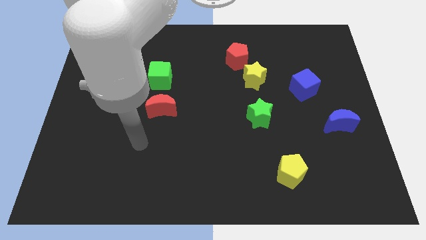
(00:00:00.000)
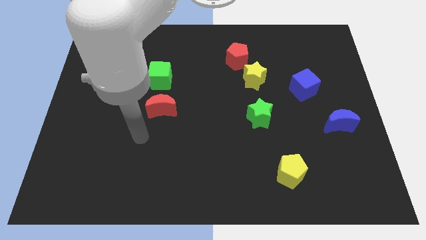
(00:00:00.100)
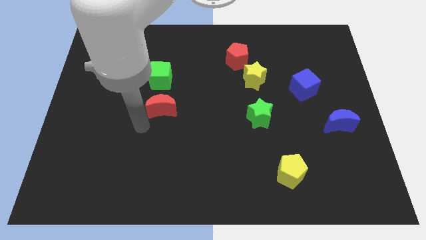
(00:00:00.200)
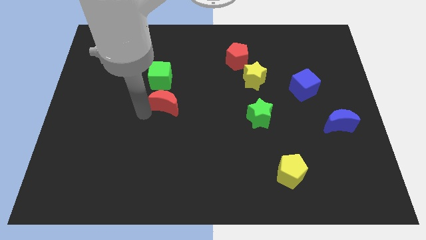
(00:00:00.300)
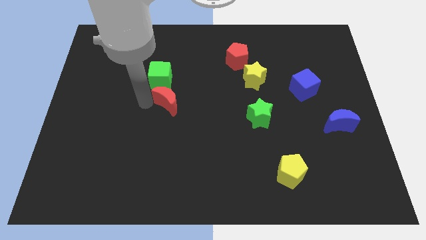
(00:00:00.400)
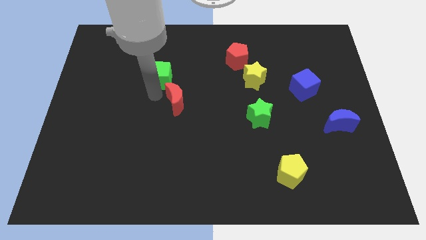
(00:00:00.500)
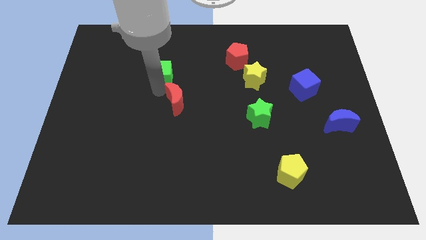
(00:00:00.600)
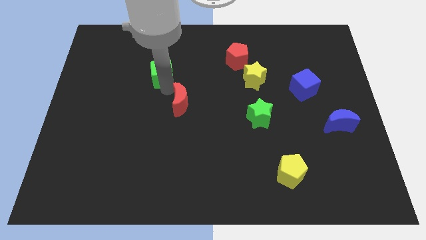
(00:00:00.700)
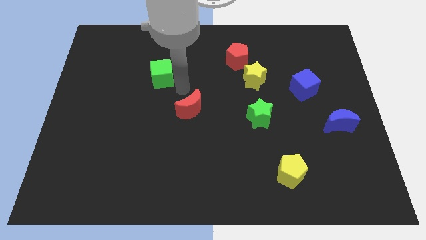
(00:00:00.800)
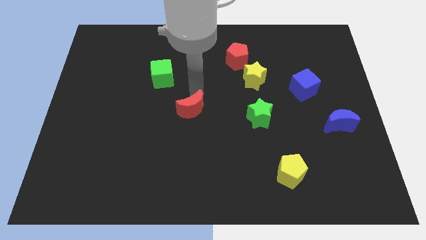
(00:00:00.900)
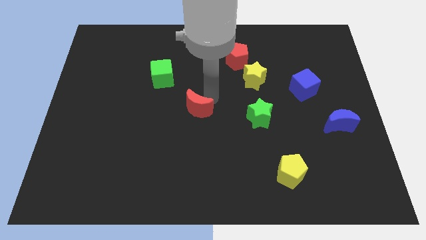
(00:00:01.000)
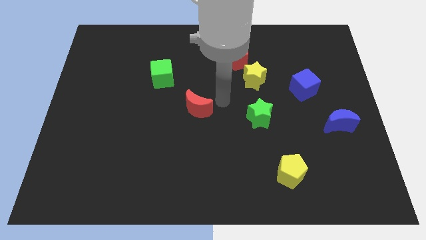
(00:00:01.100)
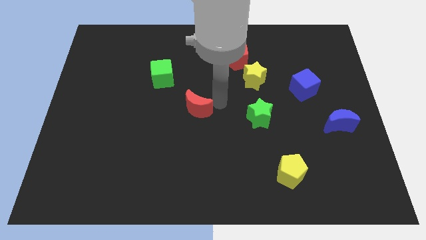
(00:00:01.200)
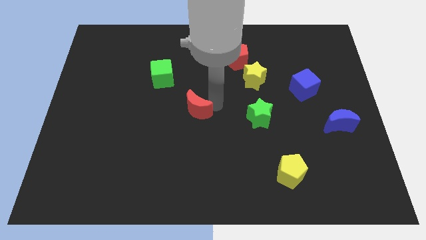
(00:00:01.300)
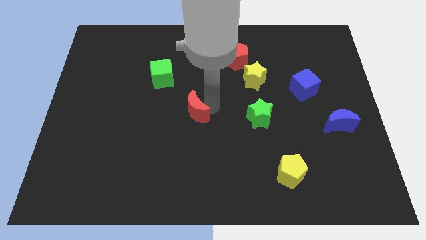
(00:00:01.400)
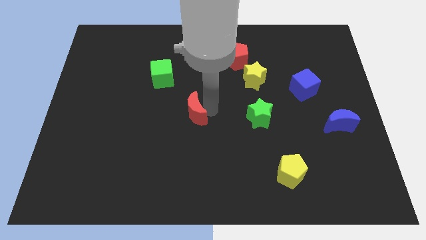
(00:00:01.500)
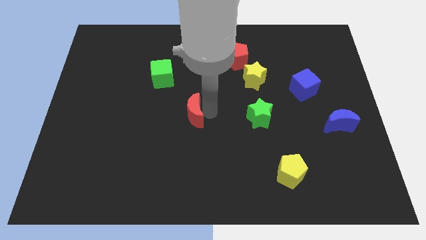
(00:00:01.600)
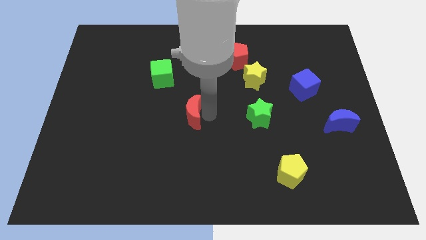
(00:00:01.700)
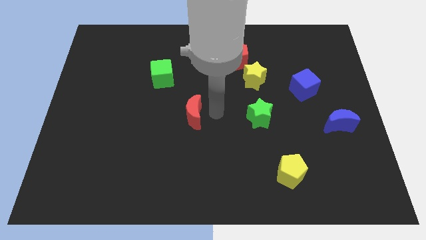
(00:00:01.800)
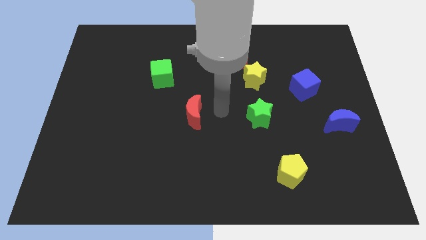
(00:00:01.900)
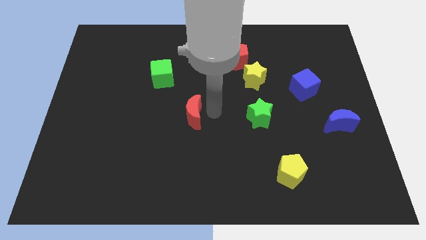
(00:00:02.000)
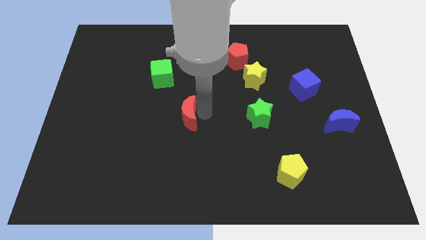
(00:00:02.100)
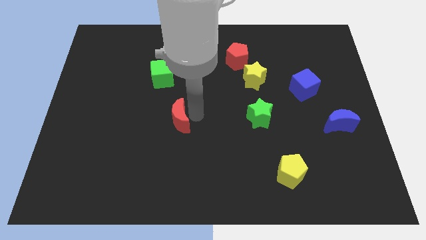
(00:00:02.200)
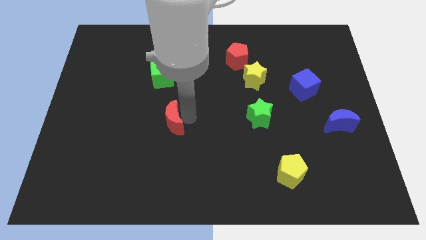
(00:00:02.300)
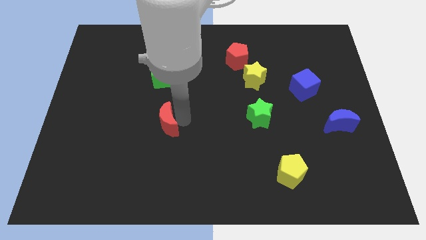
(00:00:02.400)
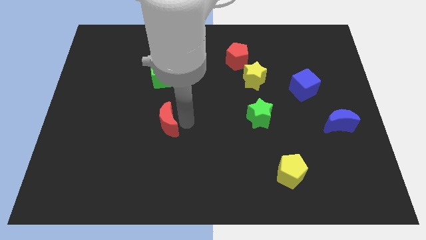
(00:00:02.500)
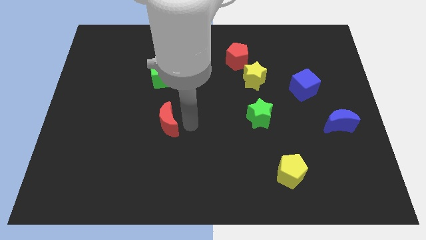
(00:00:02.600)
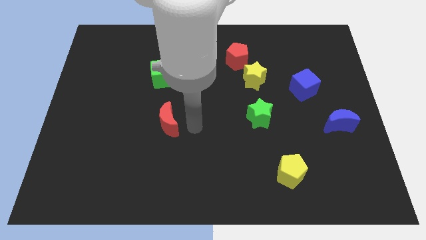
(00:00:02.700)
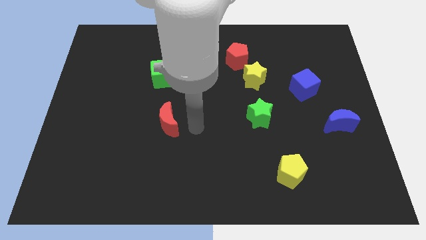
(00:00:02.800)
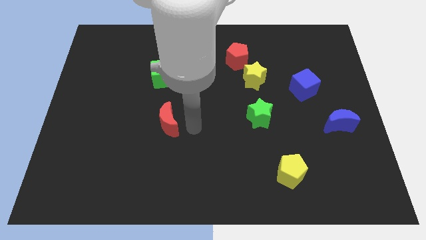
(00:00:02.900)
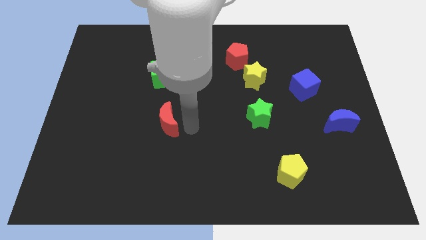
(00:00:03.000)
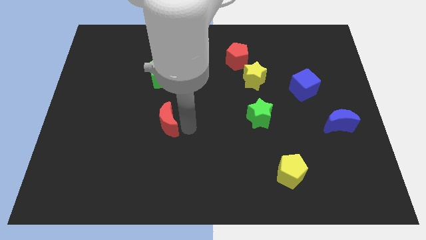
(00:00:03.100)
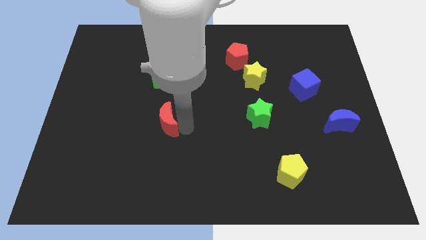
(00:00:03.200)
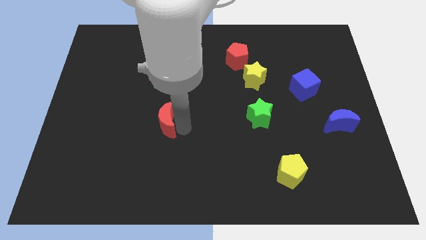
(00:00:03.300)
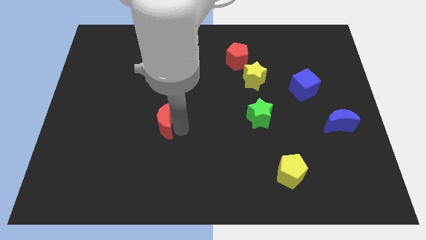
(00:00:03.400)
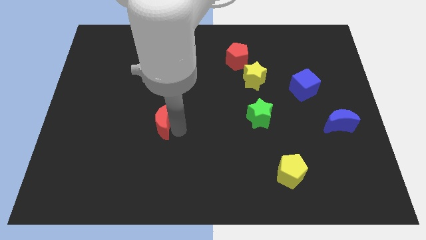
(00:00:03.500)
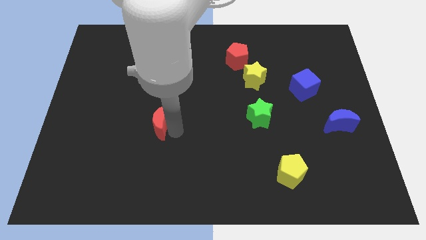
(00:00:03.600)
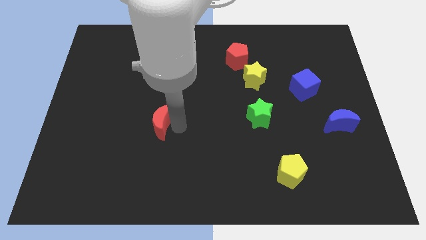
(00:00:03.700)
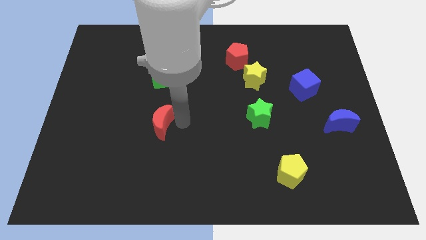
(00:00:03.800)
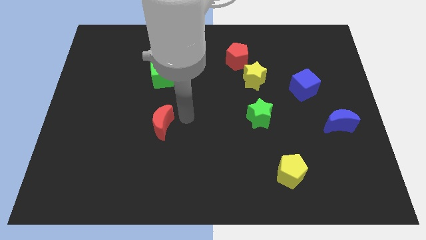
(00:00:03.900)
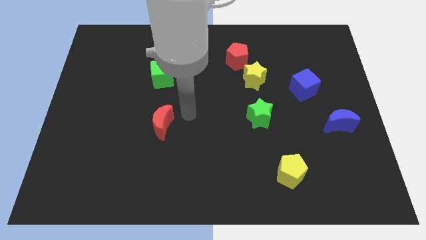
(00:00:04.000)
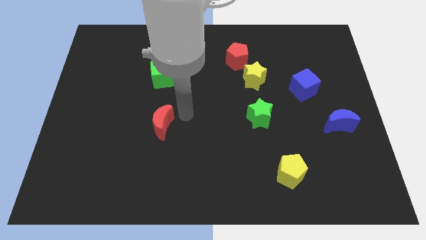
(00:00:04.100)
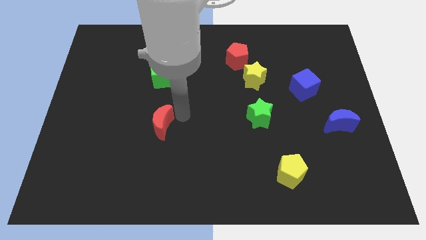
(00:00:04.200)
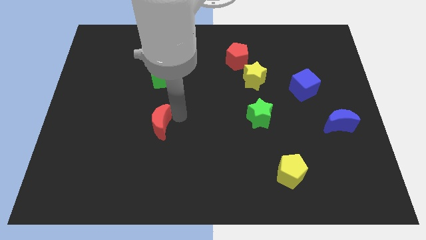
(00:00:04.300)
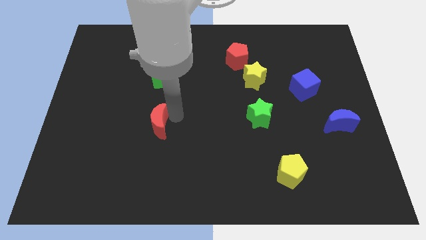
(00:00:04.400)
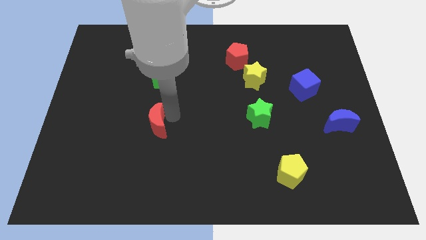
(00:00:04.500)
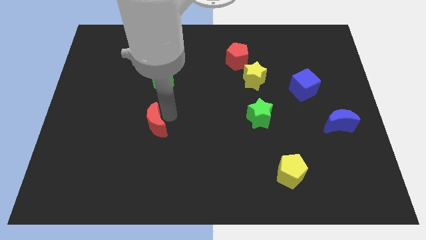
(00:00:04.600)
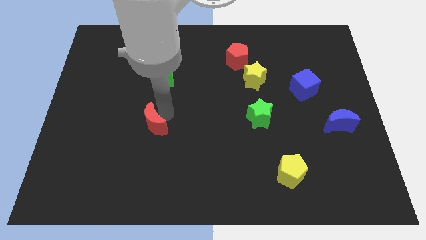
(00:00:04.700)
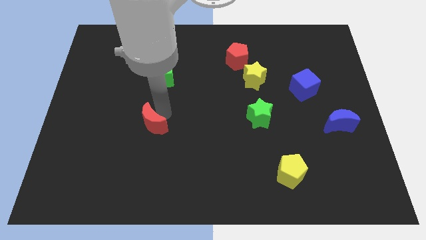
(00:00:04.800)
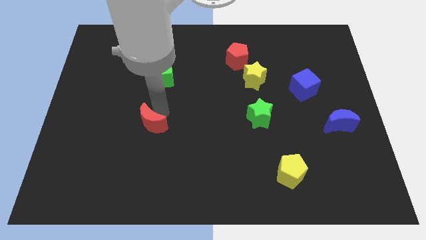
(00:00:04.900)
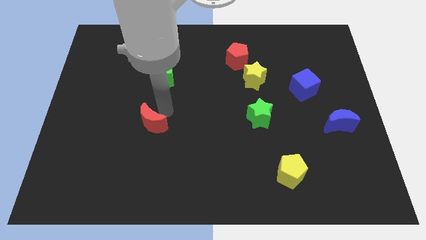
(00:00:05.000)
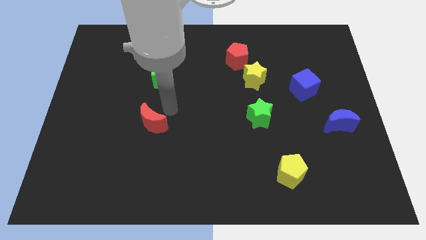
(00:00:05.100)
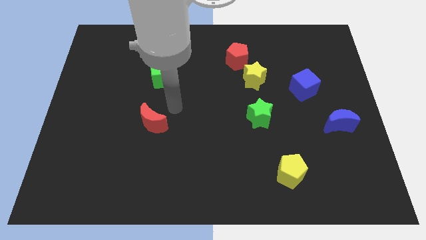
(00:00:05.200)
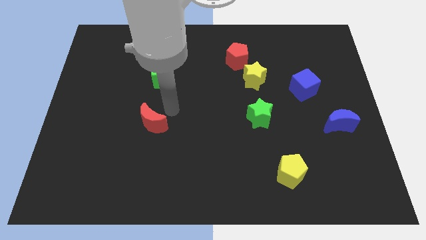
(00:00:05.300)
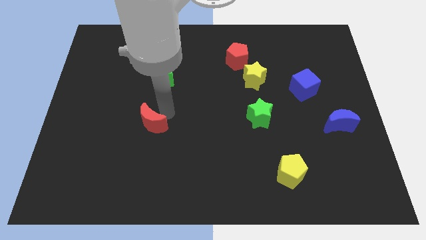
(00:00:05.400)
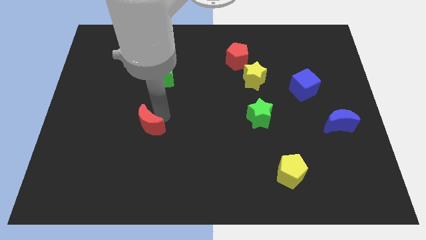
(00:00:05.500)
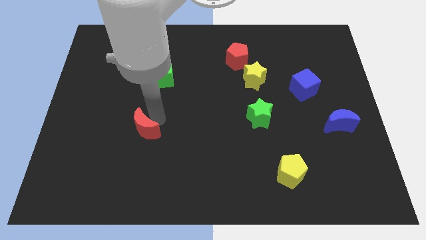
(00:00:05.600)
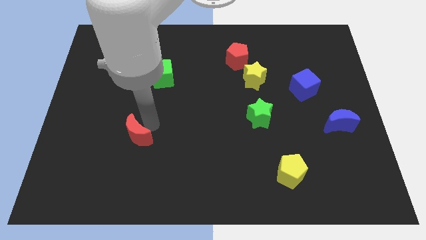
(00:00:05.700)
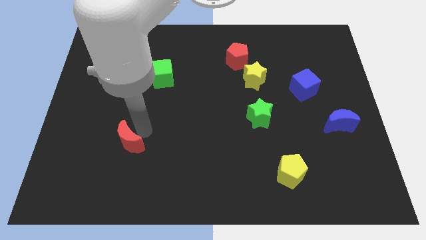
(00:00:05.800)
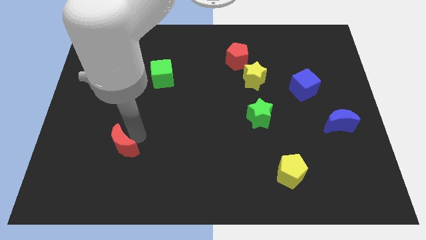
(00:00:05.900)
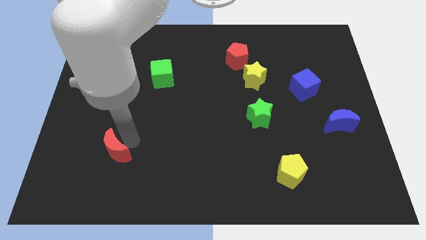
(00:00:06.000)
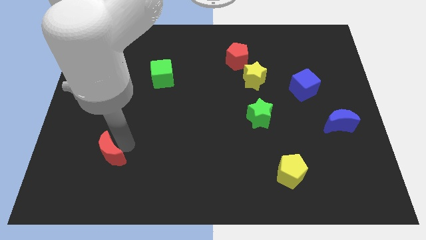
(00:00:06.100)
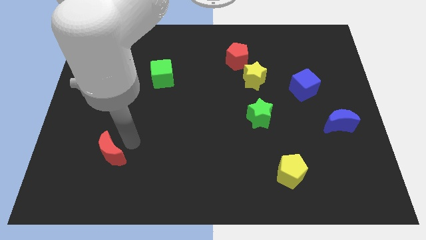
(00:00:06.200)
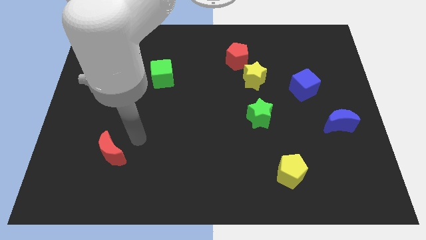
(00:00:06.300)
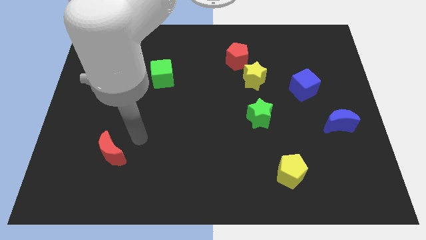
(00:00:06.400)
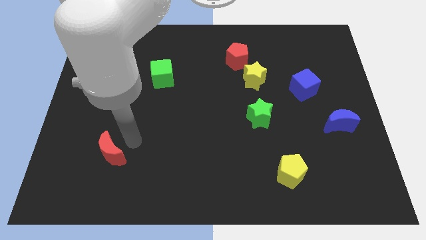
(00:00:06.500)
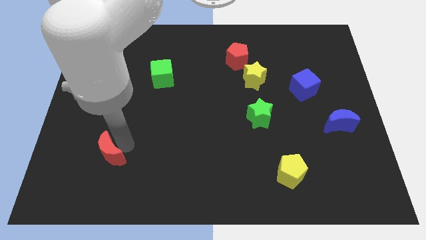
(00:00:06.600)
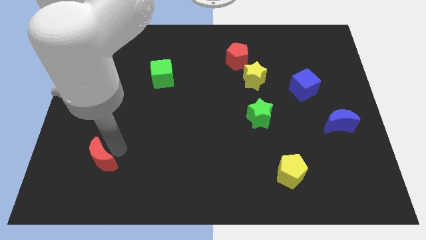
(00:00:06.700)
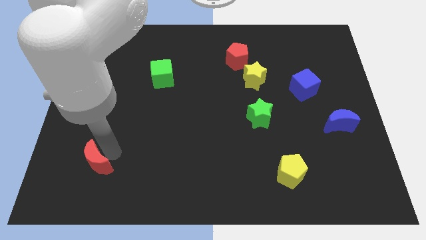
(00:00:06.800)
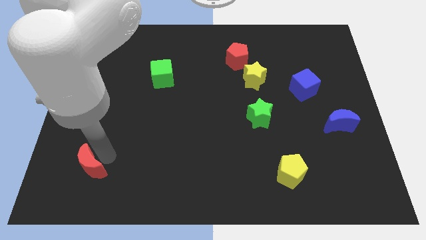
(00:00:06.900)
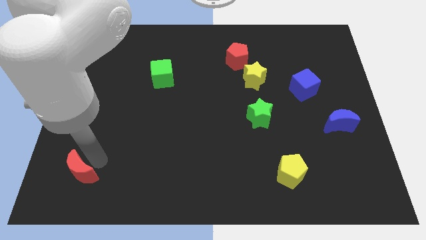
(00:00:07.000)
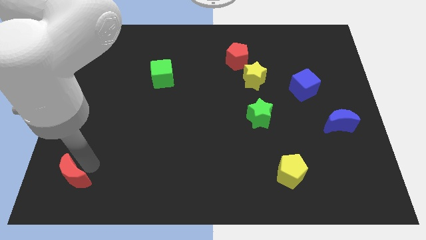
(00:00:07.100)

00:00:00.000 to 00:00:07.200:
push the red moon to the bottom left

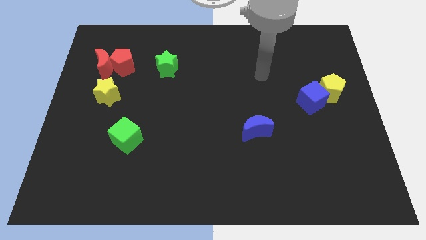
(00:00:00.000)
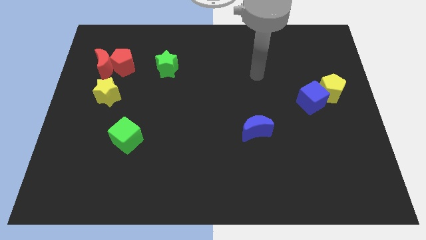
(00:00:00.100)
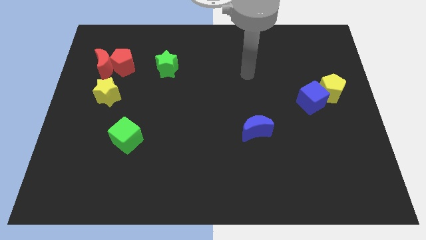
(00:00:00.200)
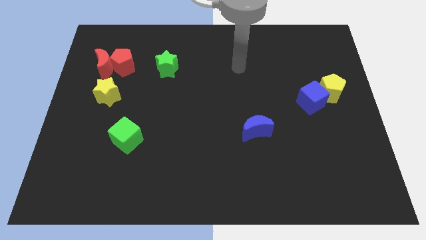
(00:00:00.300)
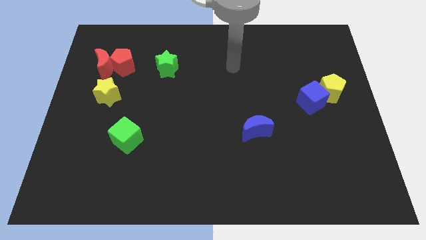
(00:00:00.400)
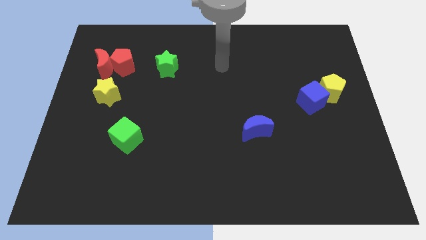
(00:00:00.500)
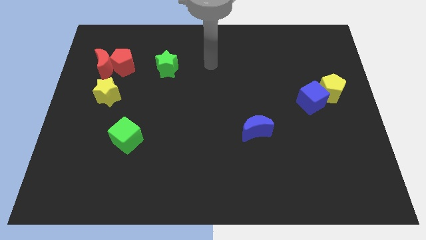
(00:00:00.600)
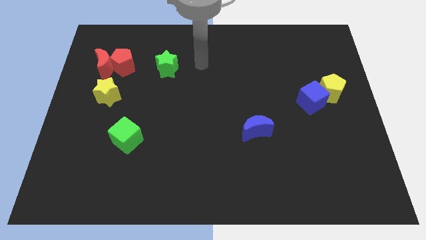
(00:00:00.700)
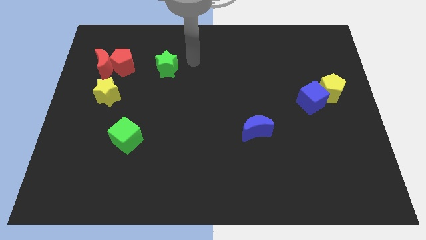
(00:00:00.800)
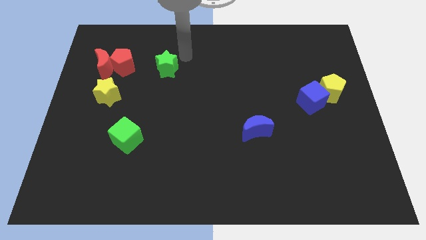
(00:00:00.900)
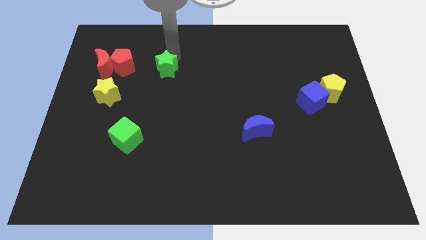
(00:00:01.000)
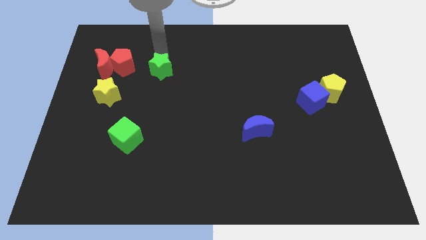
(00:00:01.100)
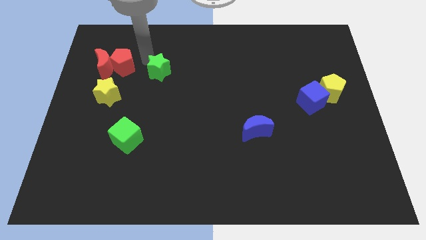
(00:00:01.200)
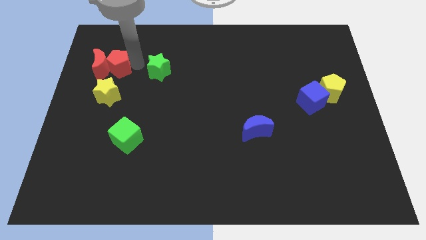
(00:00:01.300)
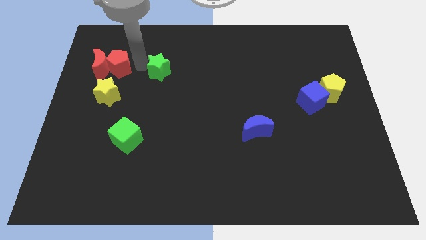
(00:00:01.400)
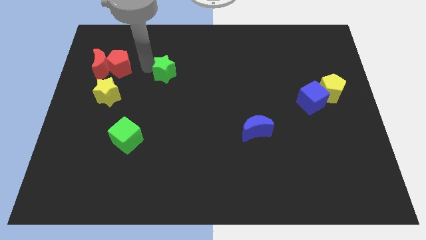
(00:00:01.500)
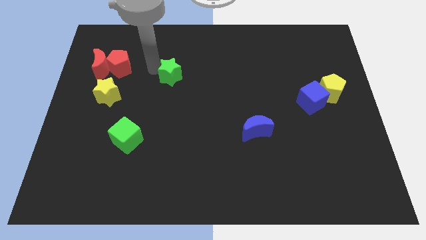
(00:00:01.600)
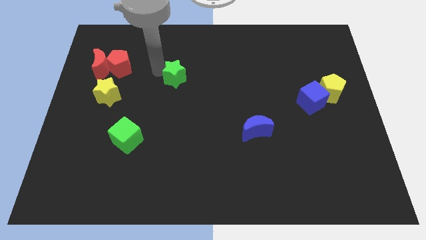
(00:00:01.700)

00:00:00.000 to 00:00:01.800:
move the green star to the center
